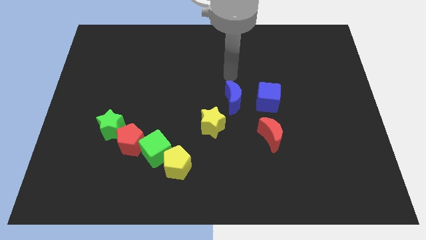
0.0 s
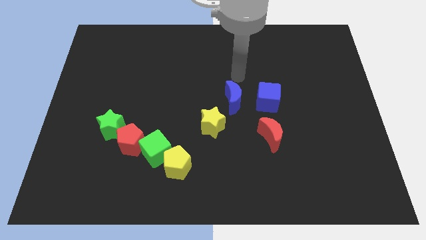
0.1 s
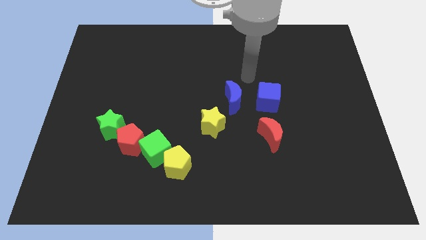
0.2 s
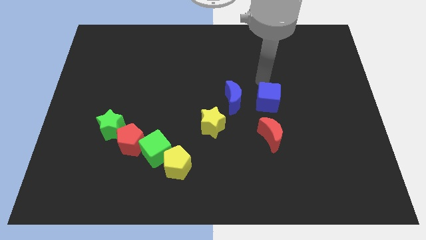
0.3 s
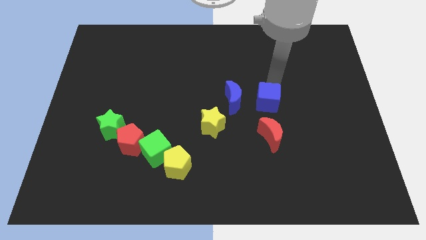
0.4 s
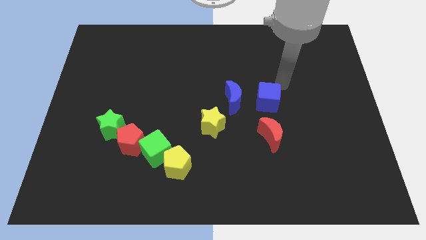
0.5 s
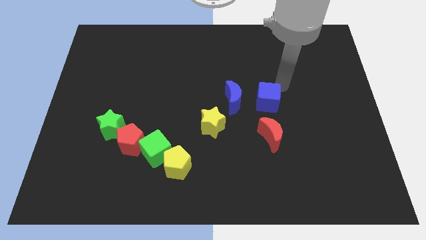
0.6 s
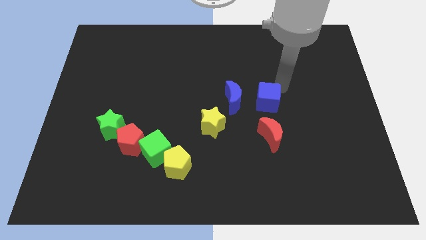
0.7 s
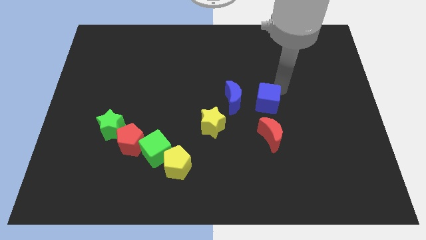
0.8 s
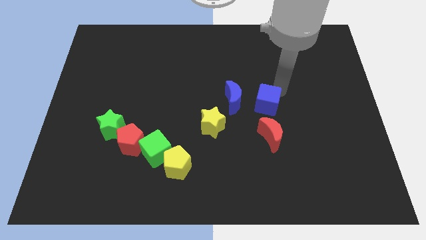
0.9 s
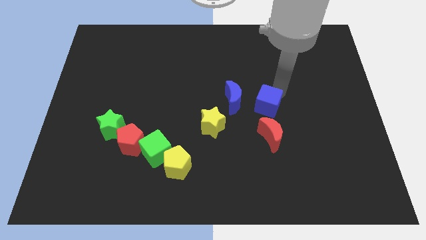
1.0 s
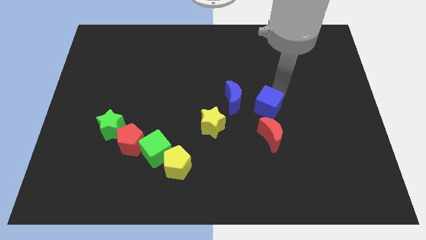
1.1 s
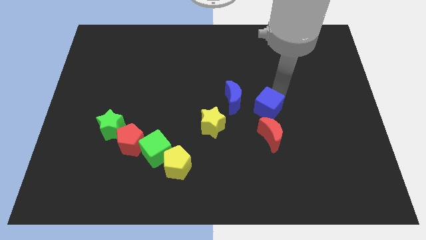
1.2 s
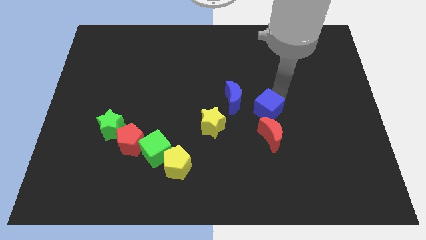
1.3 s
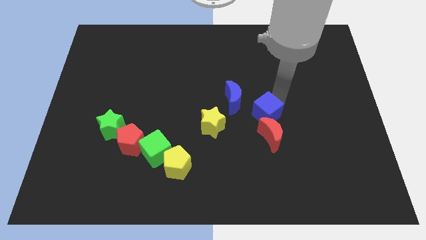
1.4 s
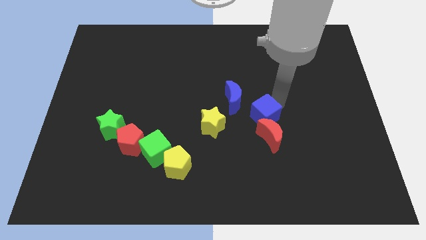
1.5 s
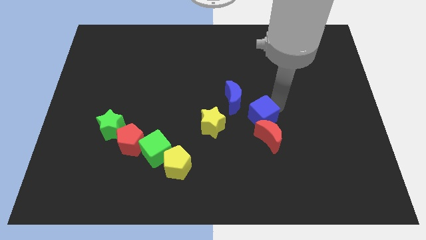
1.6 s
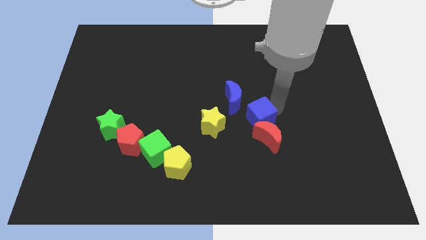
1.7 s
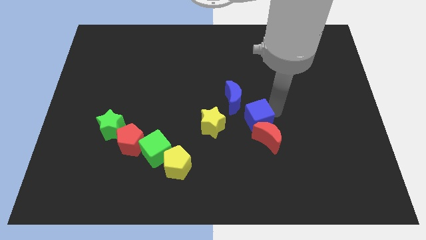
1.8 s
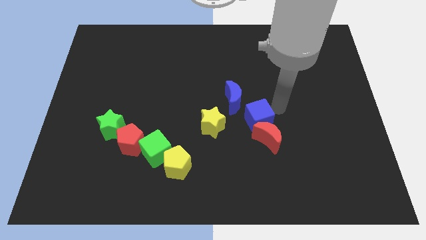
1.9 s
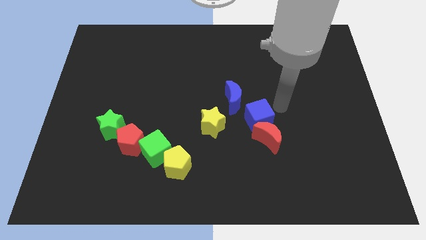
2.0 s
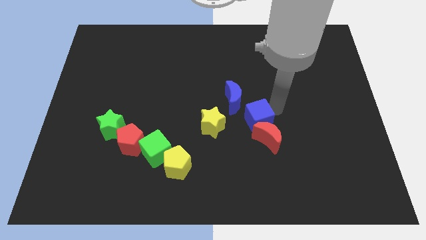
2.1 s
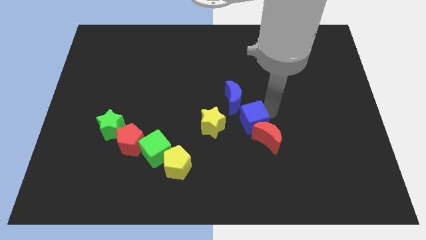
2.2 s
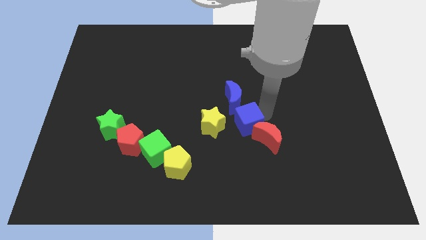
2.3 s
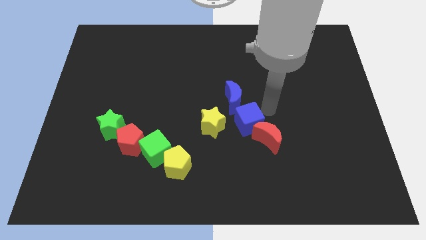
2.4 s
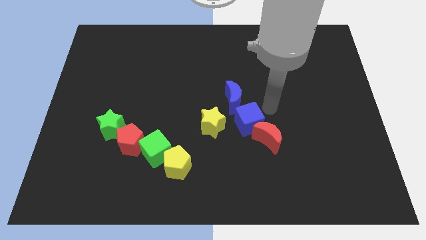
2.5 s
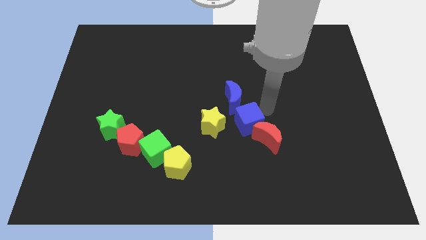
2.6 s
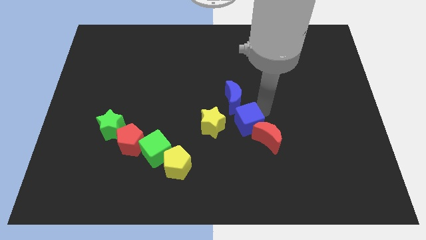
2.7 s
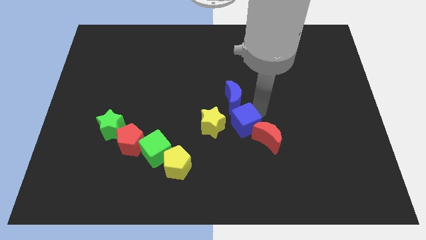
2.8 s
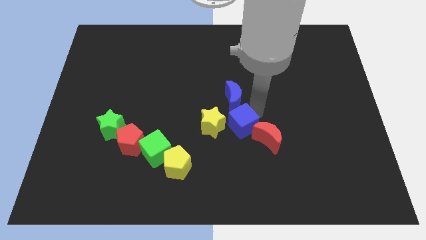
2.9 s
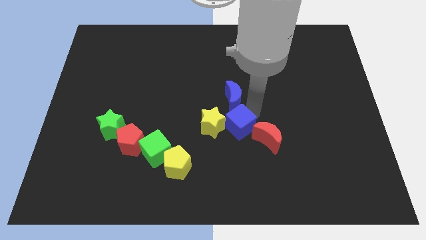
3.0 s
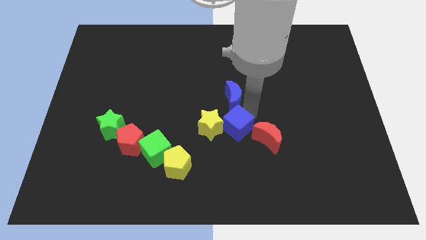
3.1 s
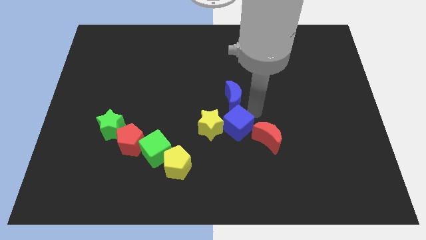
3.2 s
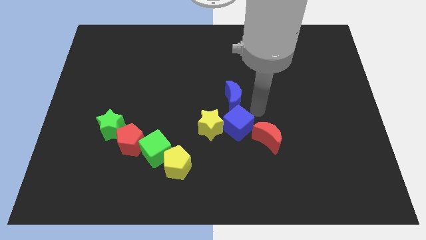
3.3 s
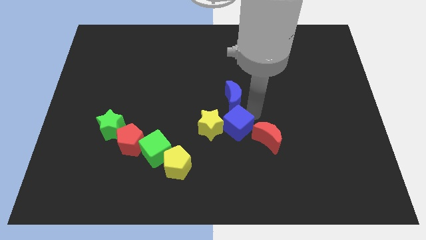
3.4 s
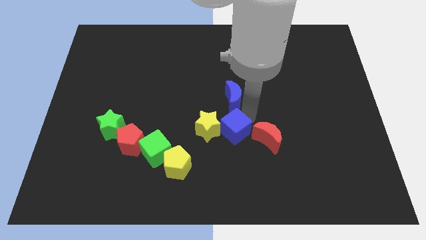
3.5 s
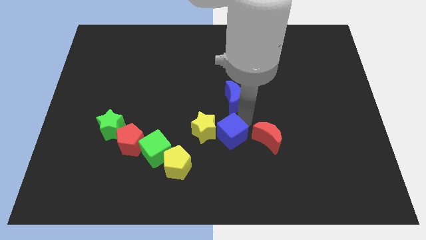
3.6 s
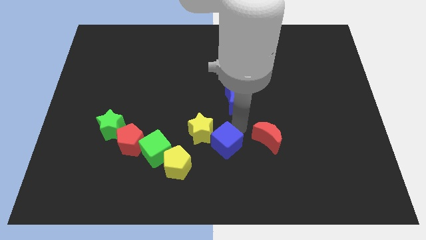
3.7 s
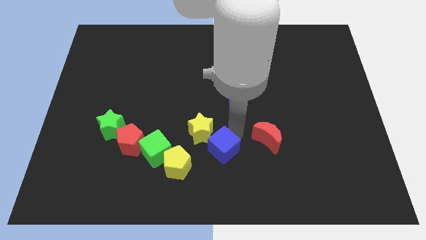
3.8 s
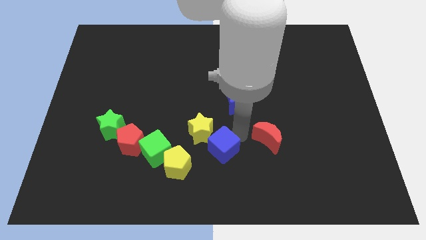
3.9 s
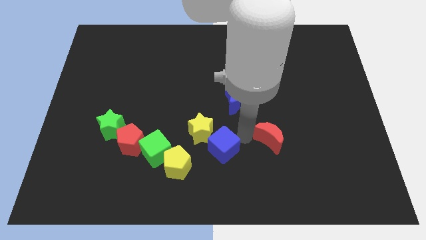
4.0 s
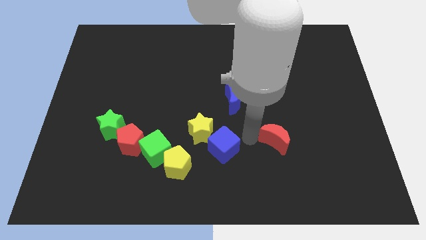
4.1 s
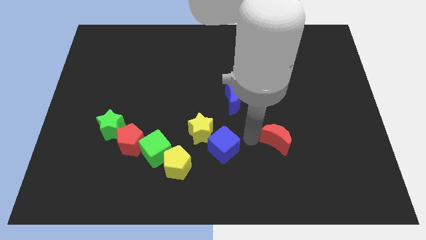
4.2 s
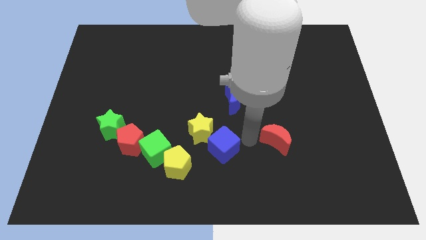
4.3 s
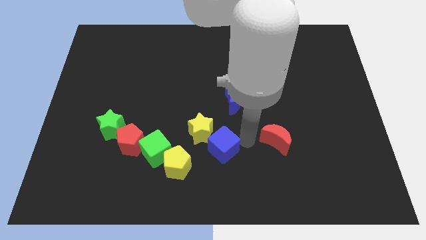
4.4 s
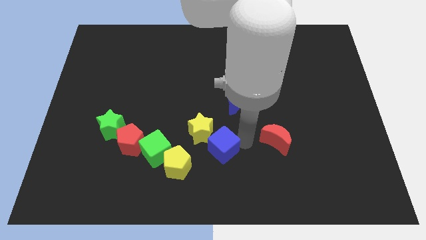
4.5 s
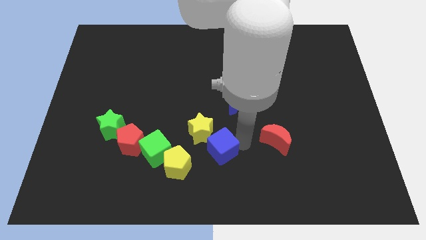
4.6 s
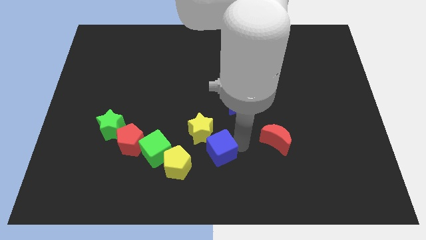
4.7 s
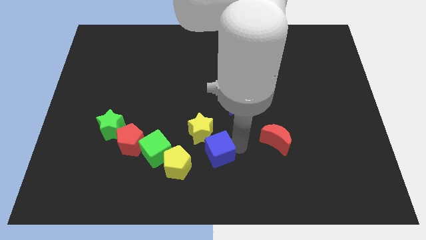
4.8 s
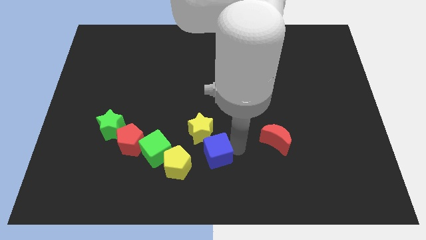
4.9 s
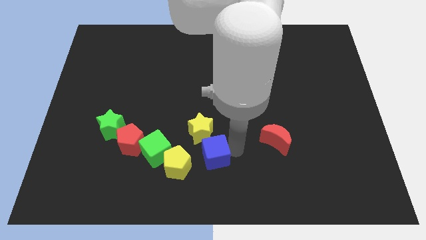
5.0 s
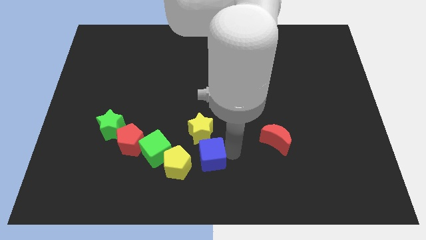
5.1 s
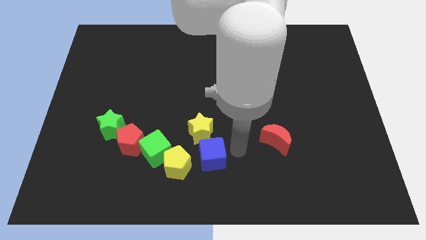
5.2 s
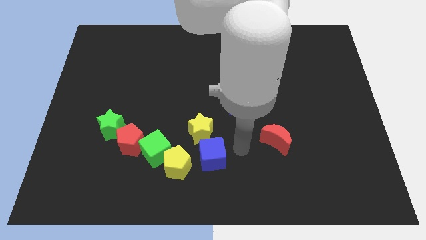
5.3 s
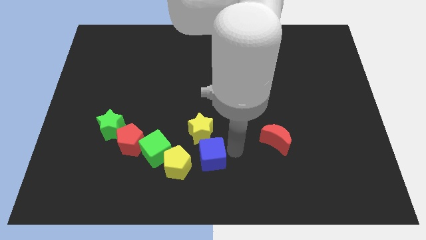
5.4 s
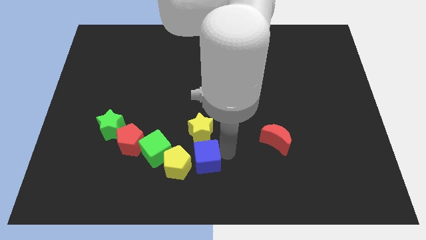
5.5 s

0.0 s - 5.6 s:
push the blue cube next to the yellow pentagon

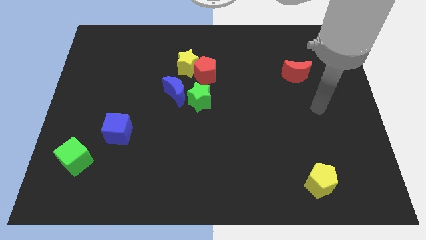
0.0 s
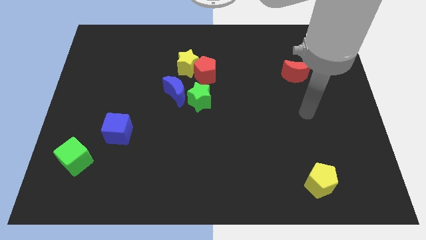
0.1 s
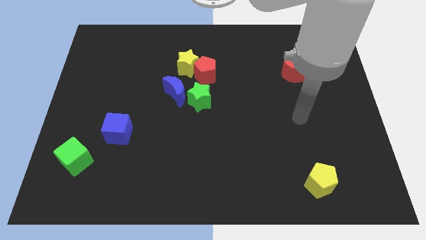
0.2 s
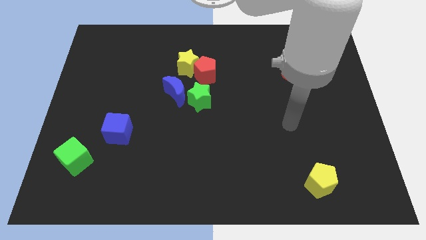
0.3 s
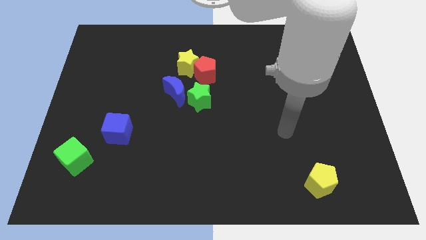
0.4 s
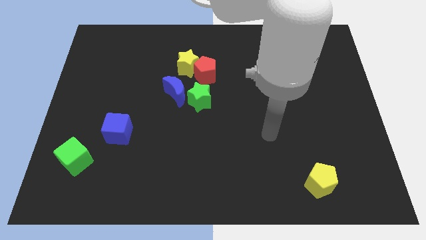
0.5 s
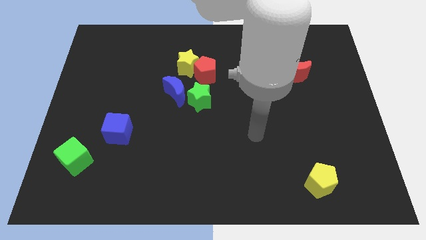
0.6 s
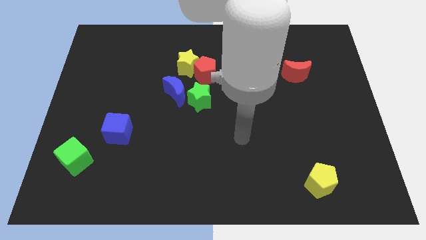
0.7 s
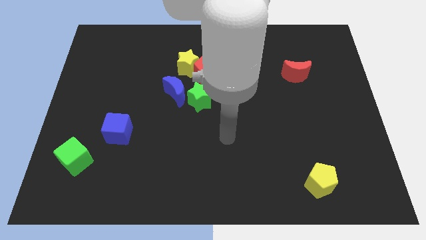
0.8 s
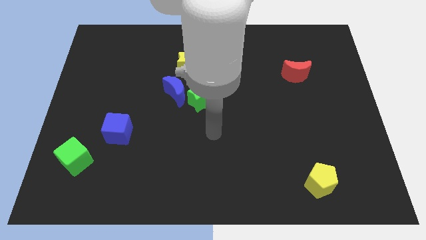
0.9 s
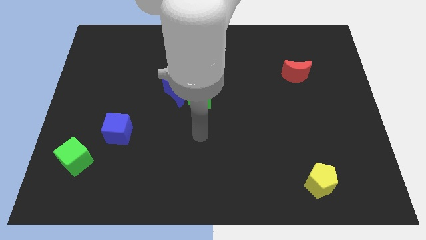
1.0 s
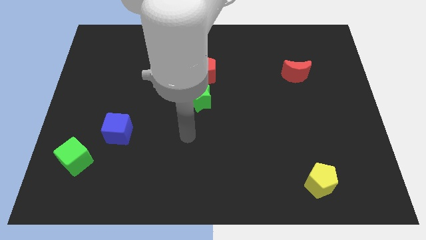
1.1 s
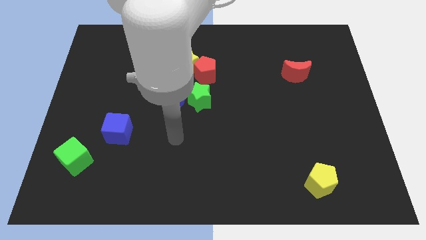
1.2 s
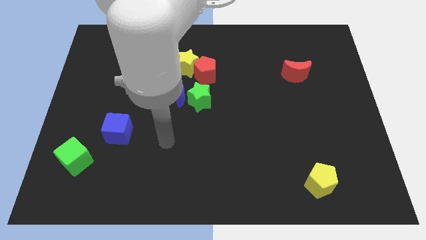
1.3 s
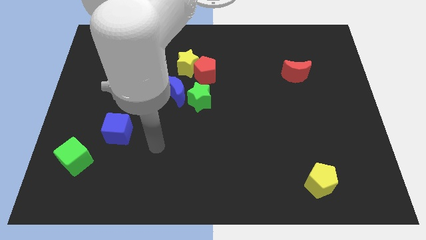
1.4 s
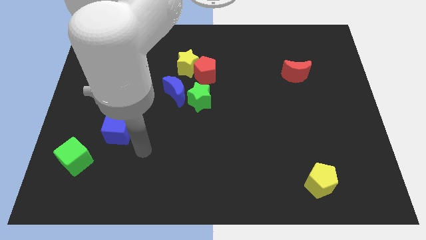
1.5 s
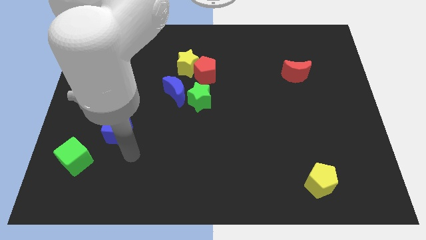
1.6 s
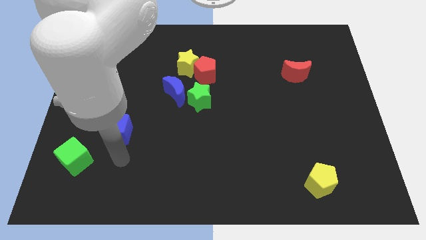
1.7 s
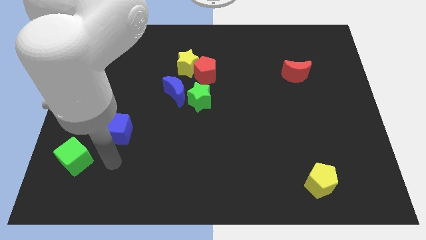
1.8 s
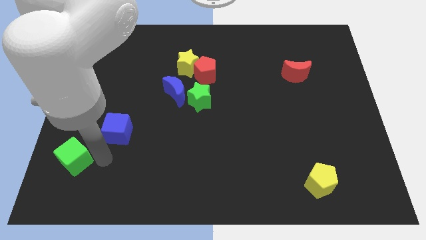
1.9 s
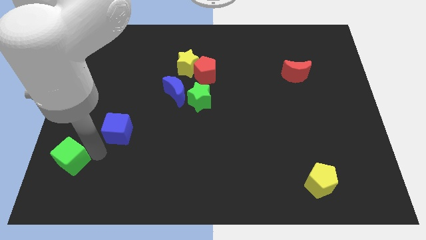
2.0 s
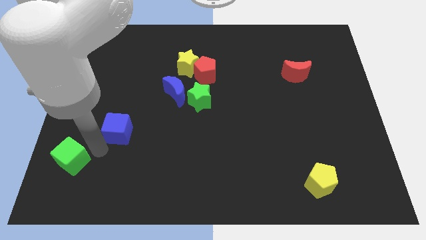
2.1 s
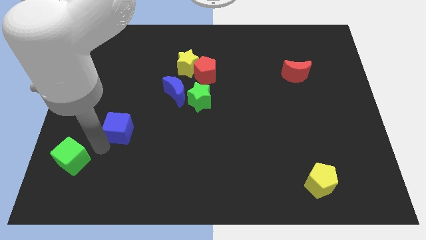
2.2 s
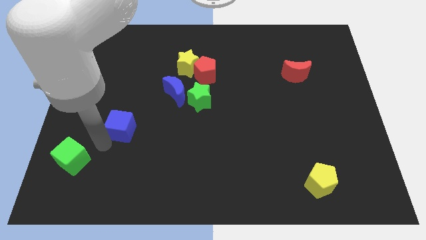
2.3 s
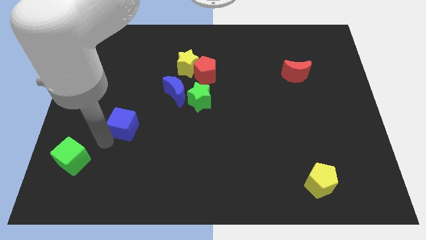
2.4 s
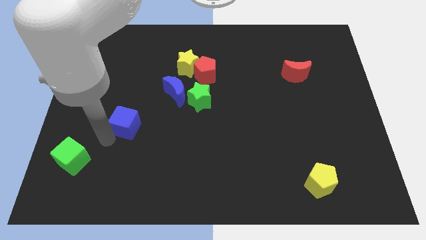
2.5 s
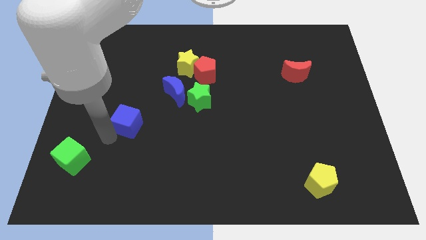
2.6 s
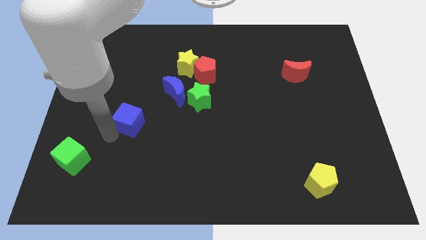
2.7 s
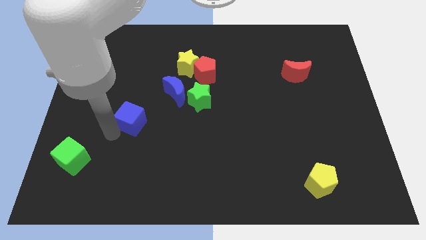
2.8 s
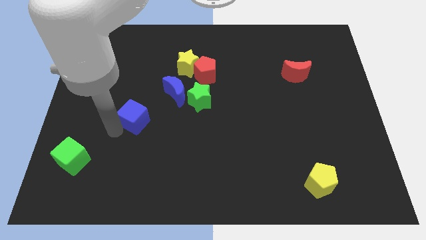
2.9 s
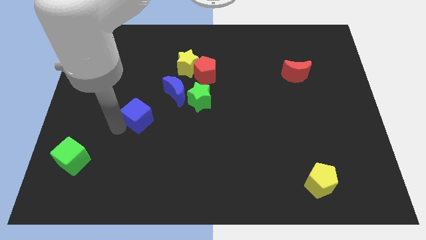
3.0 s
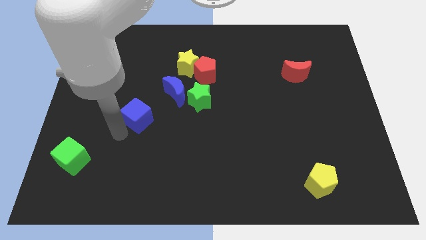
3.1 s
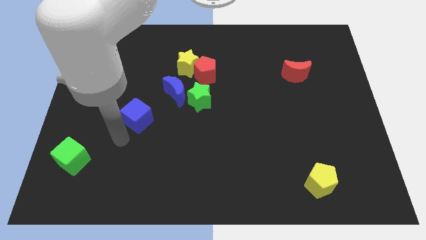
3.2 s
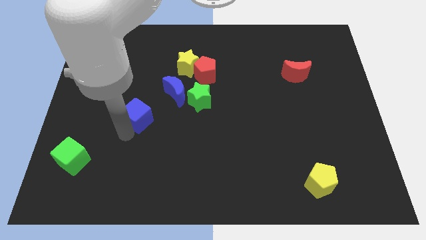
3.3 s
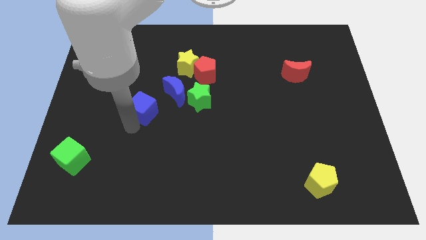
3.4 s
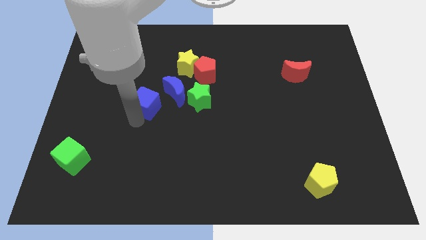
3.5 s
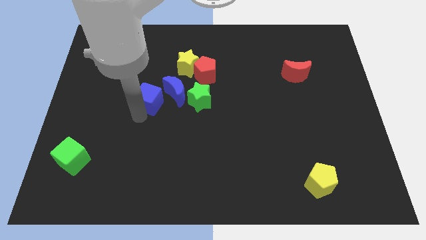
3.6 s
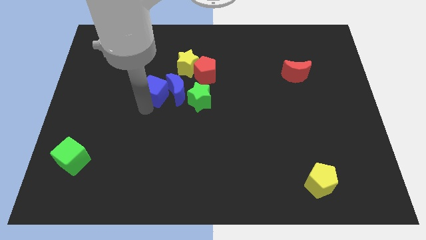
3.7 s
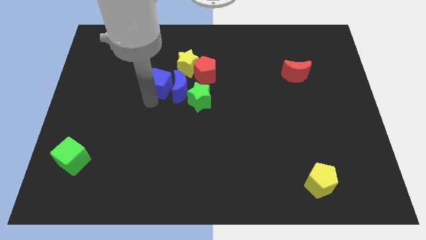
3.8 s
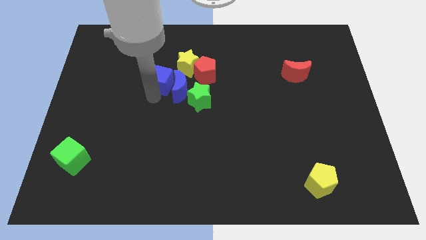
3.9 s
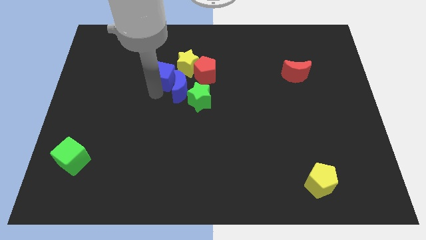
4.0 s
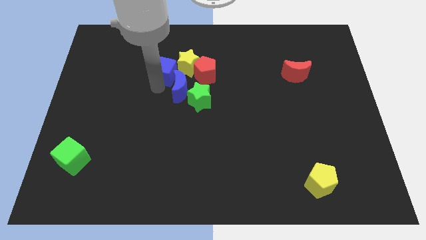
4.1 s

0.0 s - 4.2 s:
push the blue cube next to the yellow star
